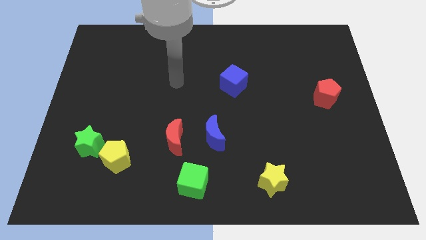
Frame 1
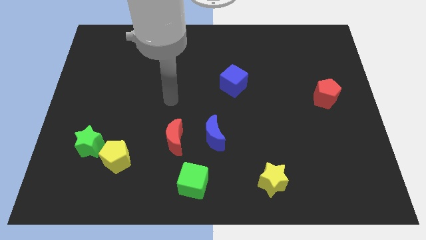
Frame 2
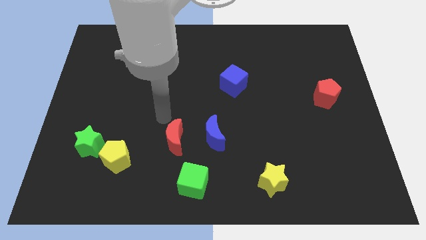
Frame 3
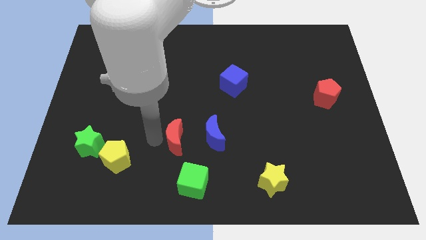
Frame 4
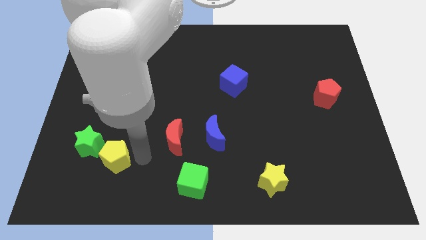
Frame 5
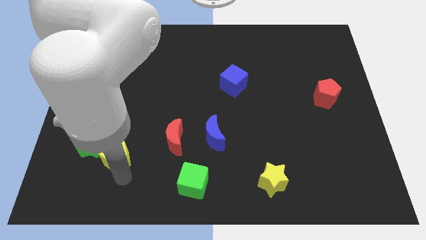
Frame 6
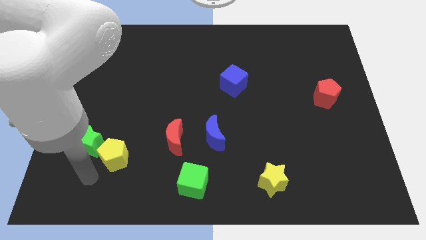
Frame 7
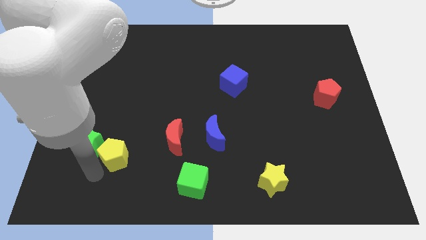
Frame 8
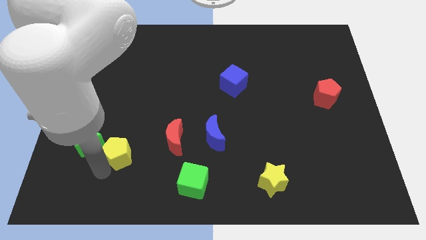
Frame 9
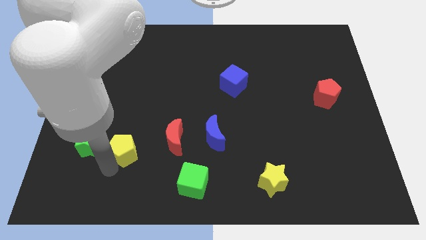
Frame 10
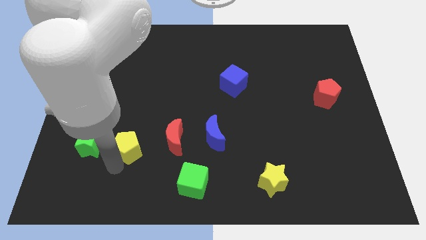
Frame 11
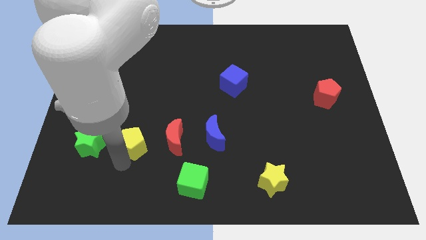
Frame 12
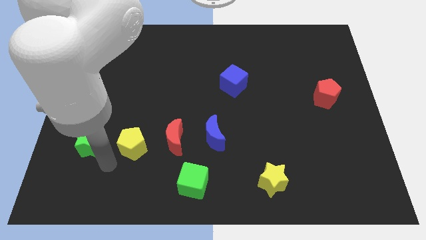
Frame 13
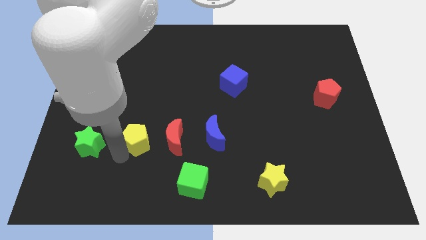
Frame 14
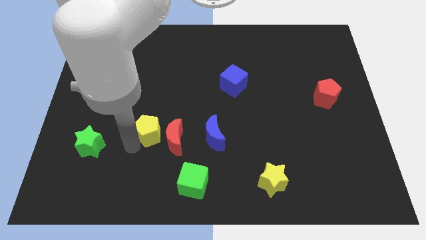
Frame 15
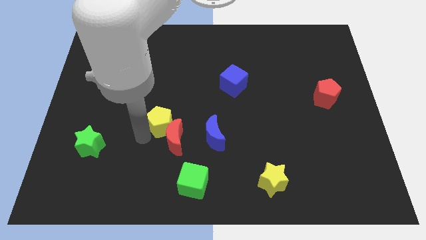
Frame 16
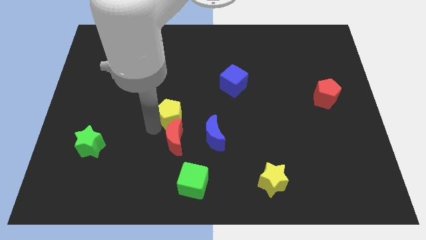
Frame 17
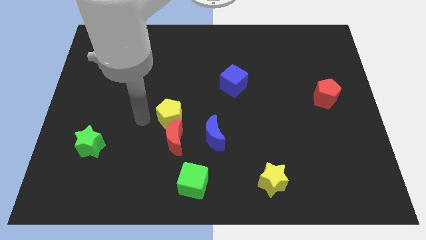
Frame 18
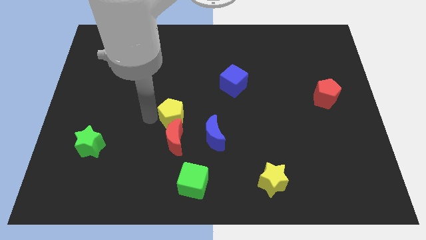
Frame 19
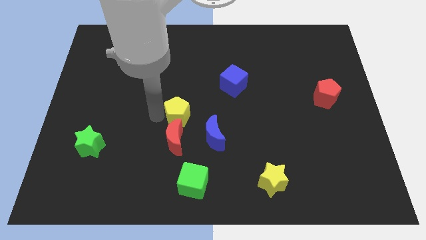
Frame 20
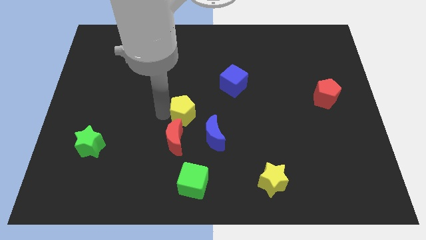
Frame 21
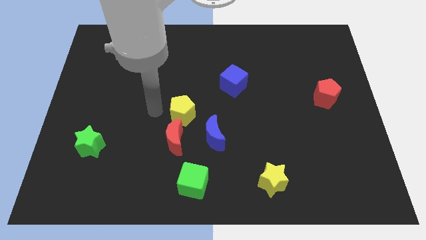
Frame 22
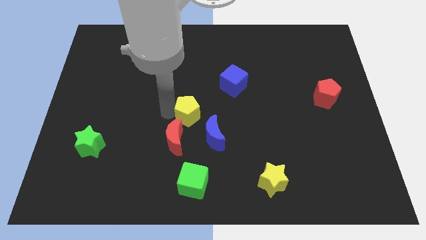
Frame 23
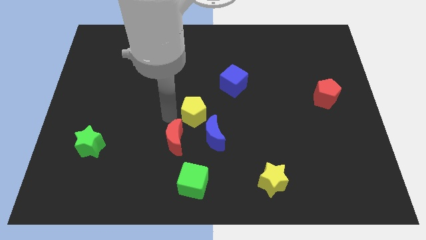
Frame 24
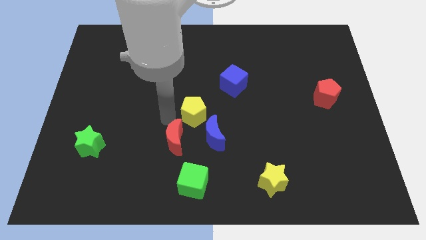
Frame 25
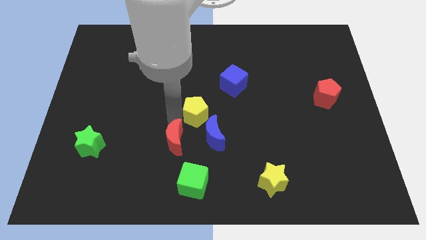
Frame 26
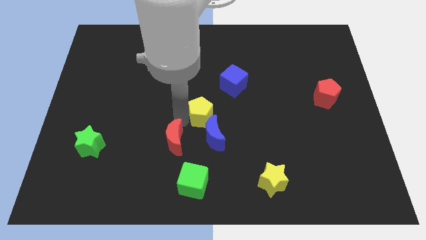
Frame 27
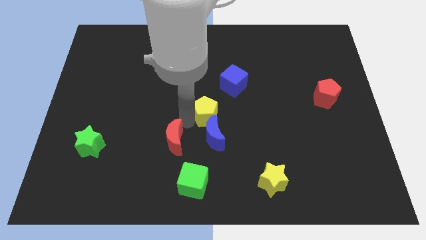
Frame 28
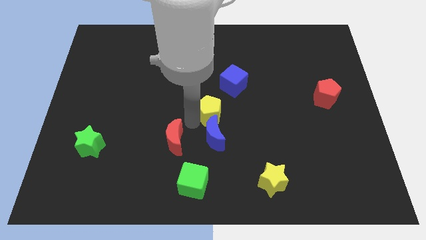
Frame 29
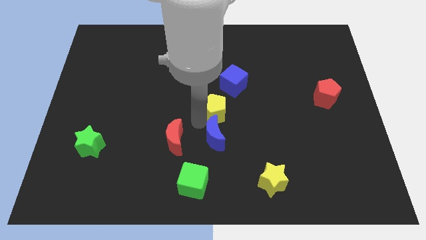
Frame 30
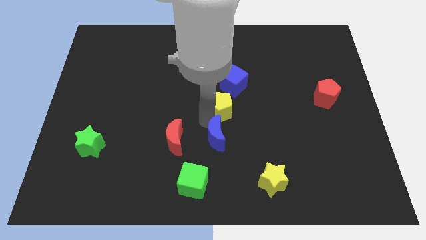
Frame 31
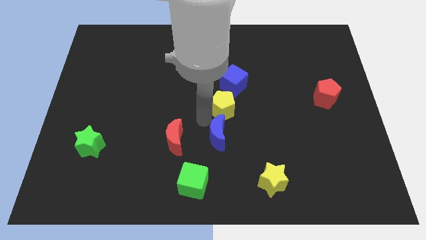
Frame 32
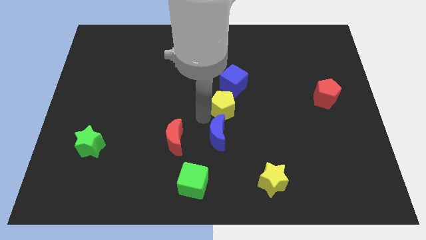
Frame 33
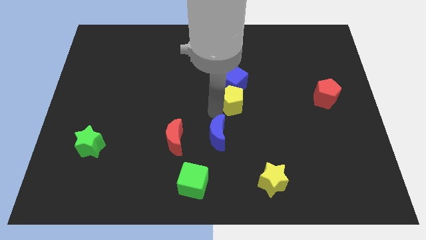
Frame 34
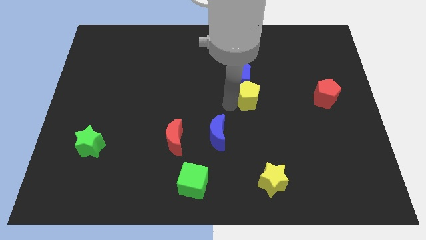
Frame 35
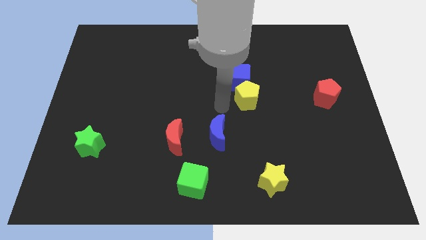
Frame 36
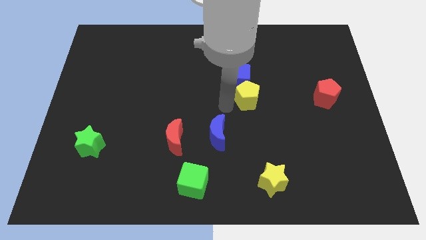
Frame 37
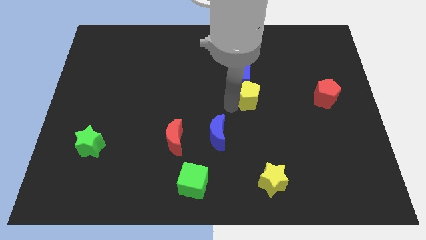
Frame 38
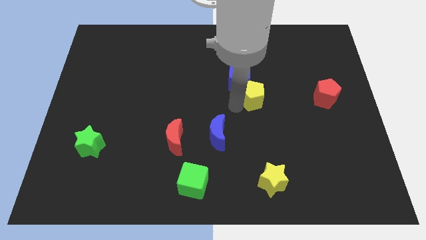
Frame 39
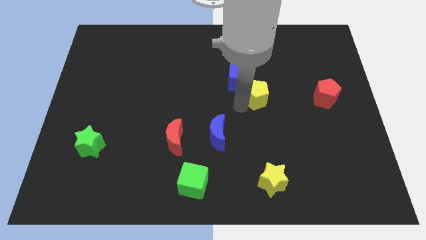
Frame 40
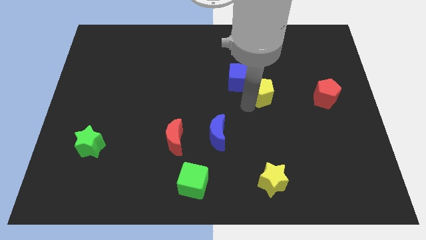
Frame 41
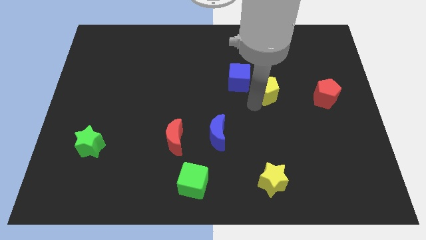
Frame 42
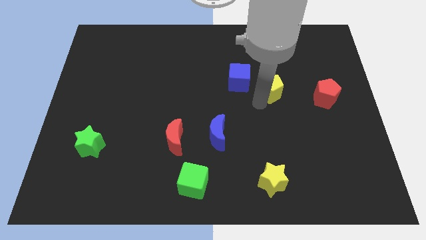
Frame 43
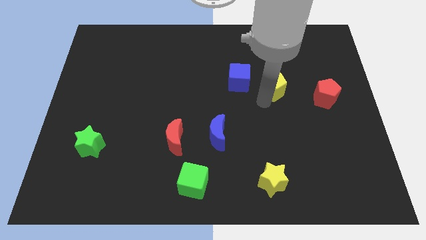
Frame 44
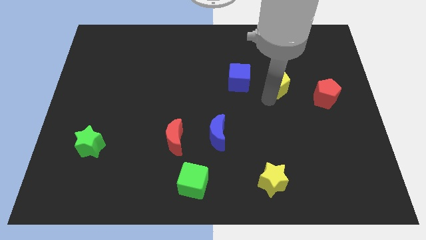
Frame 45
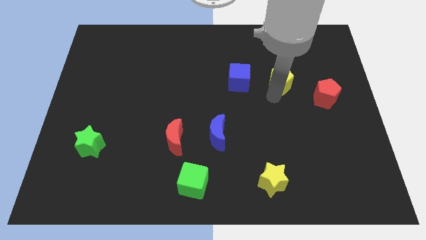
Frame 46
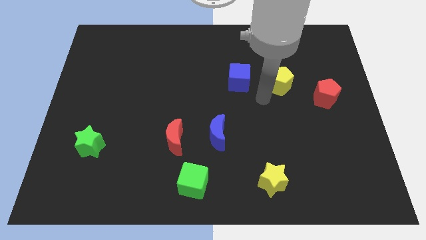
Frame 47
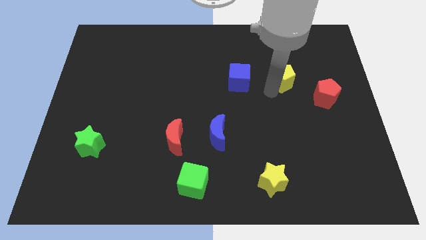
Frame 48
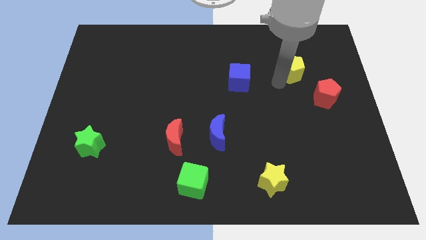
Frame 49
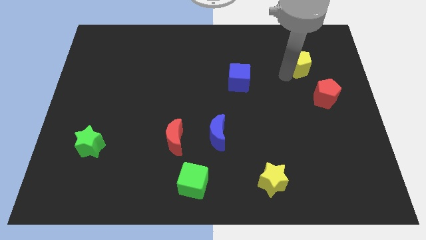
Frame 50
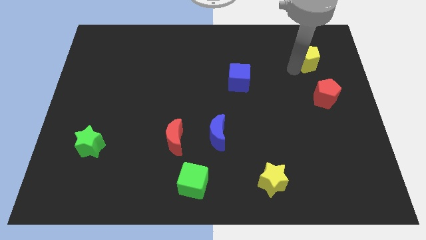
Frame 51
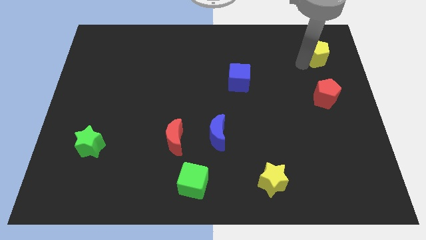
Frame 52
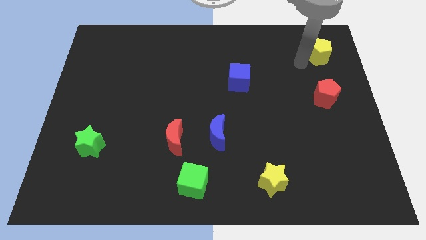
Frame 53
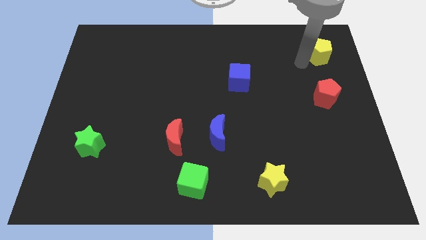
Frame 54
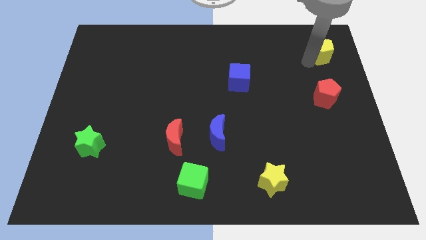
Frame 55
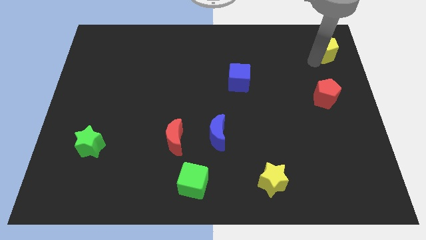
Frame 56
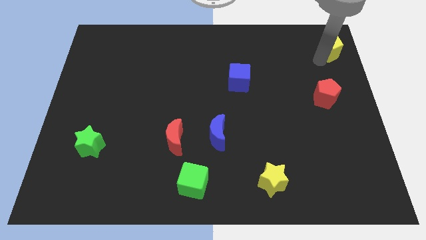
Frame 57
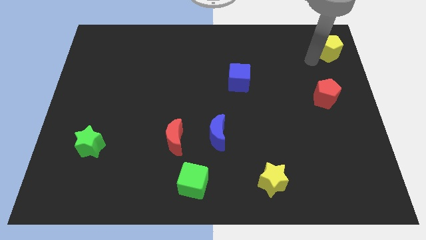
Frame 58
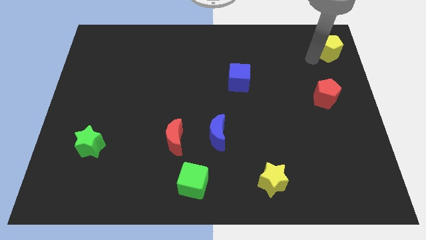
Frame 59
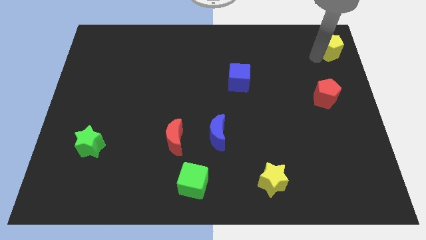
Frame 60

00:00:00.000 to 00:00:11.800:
slide the yellow pentagon to the top right
